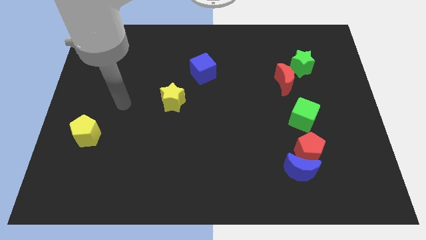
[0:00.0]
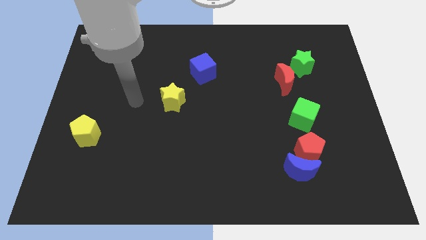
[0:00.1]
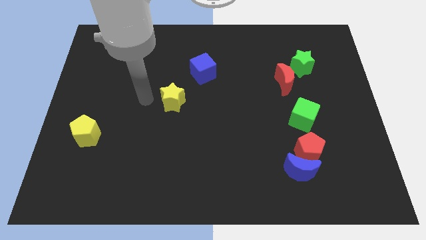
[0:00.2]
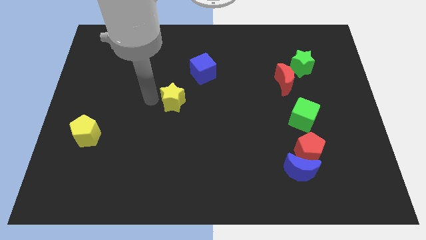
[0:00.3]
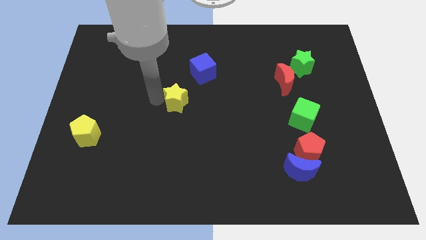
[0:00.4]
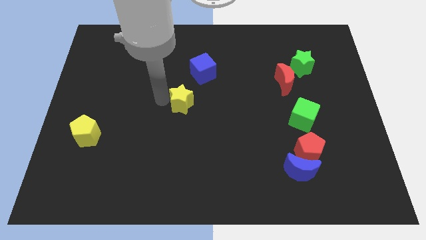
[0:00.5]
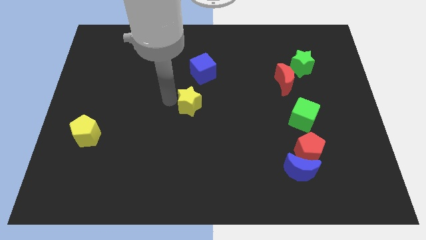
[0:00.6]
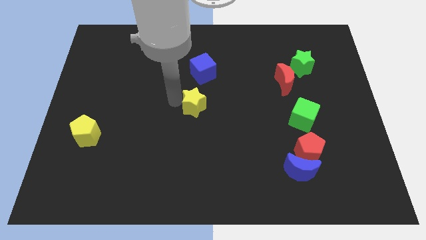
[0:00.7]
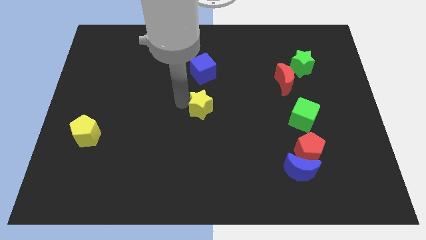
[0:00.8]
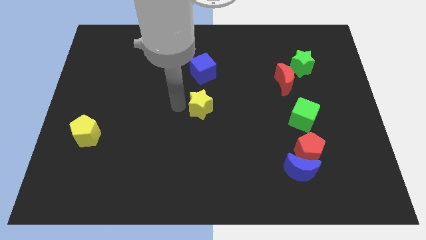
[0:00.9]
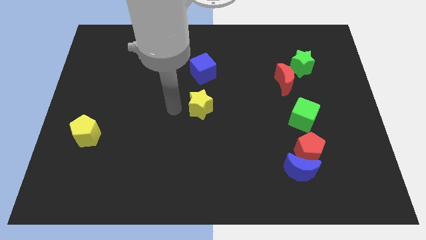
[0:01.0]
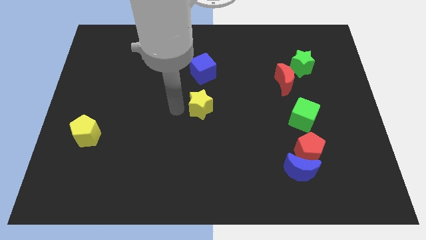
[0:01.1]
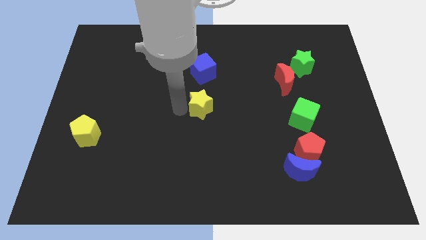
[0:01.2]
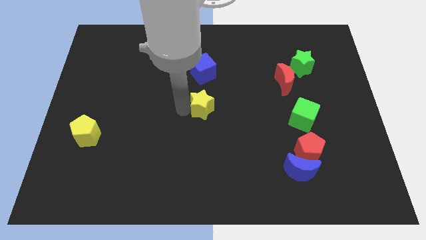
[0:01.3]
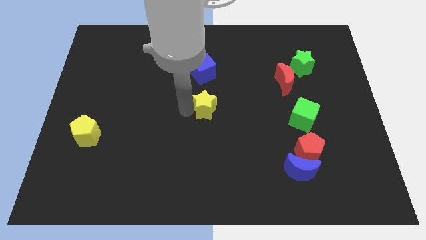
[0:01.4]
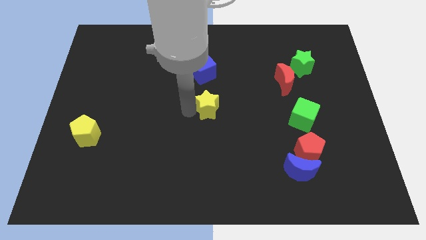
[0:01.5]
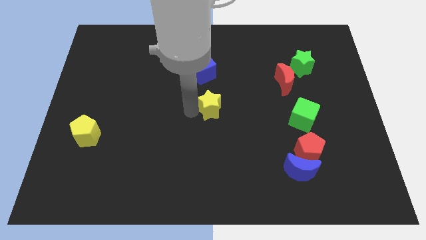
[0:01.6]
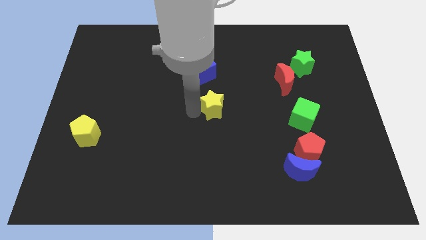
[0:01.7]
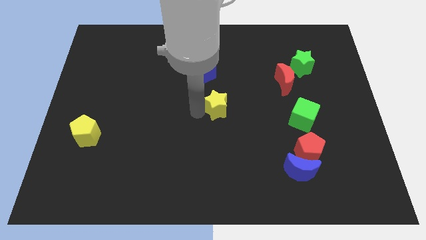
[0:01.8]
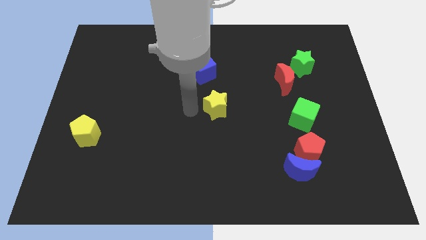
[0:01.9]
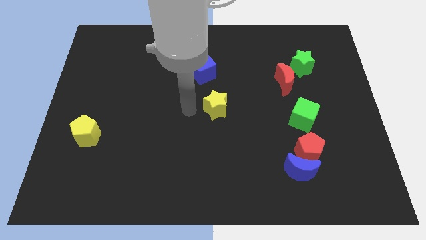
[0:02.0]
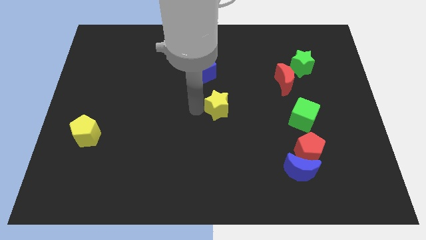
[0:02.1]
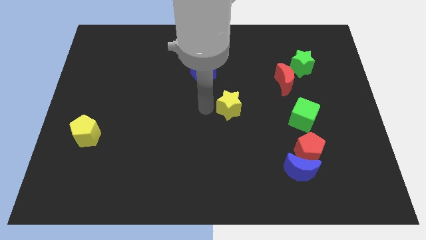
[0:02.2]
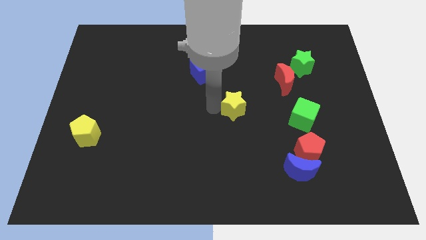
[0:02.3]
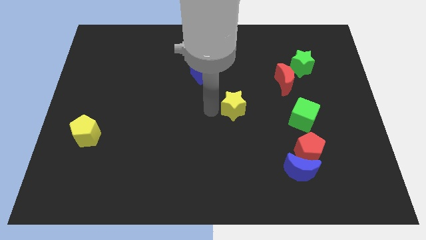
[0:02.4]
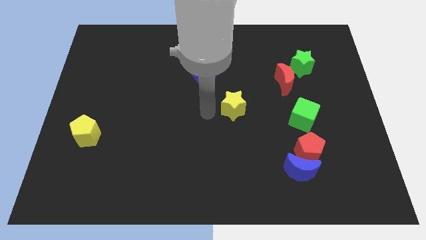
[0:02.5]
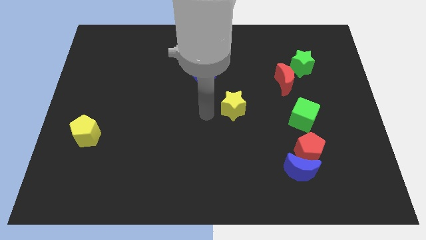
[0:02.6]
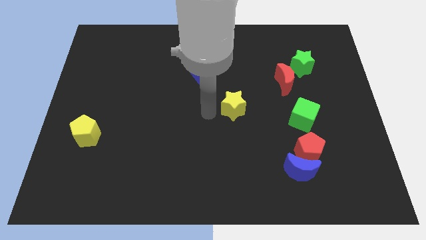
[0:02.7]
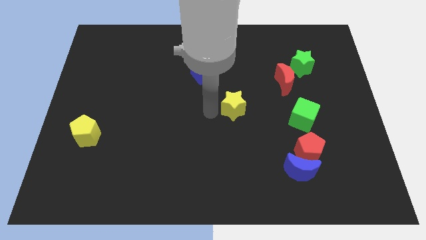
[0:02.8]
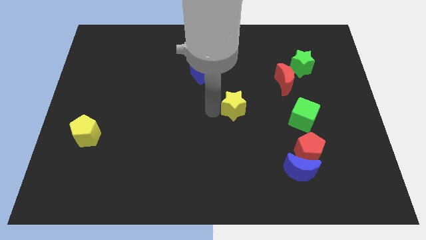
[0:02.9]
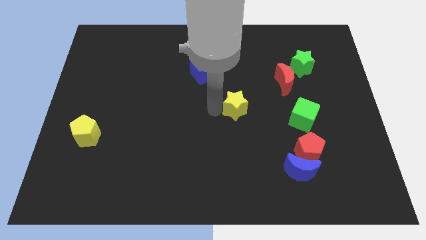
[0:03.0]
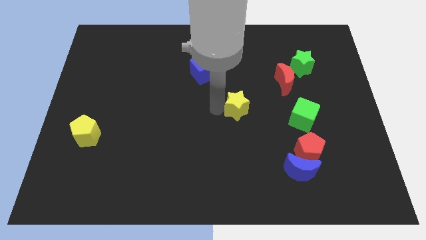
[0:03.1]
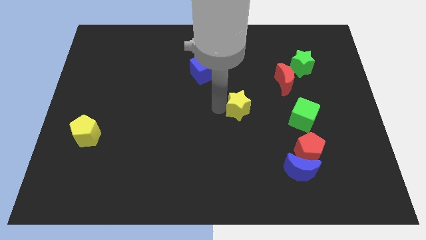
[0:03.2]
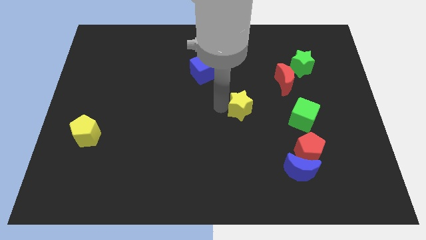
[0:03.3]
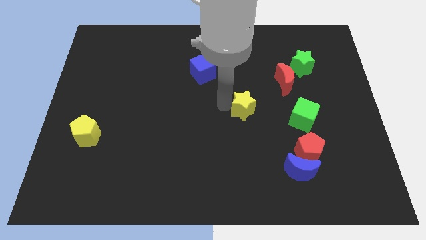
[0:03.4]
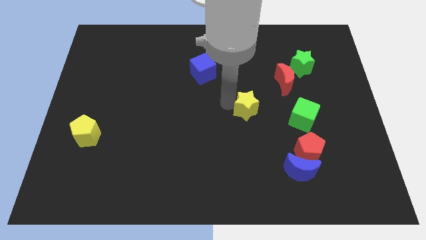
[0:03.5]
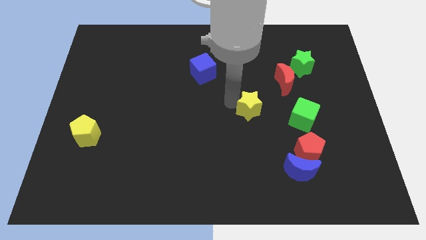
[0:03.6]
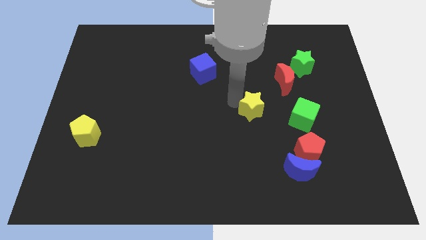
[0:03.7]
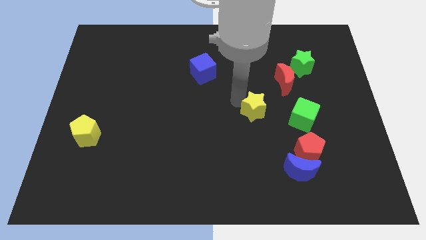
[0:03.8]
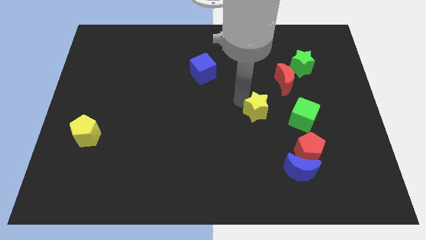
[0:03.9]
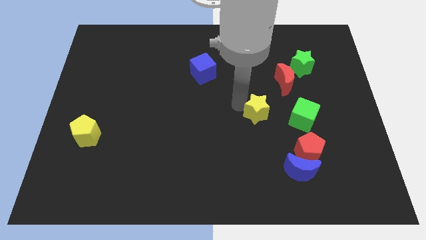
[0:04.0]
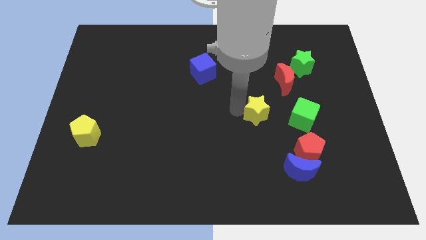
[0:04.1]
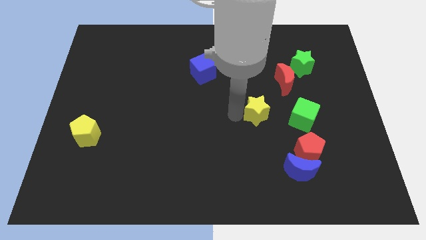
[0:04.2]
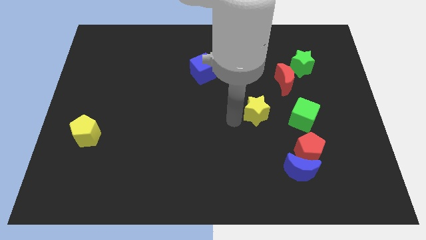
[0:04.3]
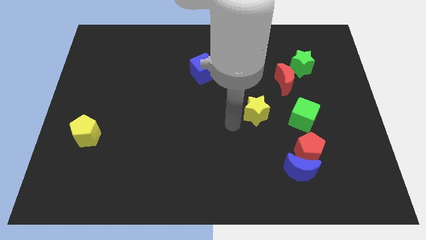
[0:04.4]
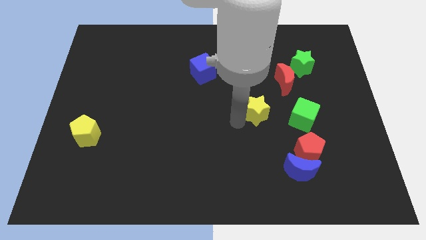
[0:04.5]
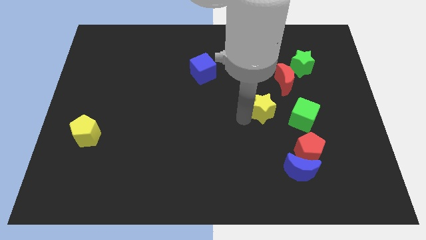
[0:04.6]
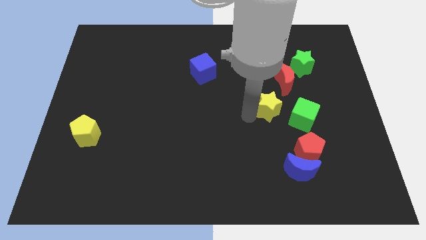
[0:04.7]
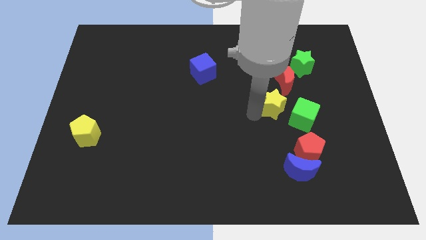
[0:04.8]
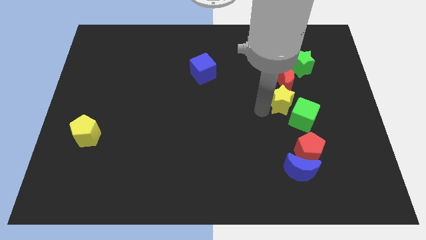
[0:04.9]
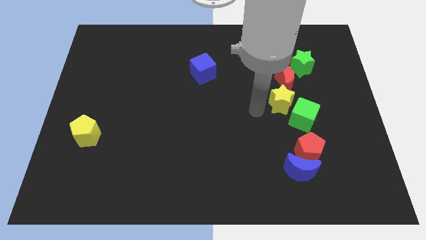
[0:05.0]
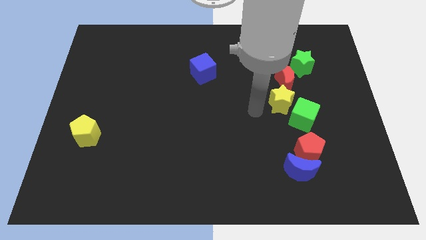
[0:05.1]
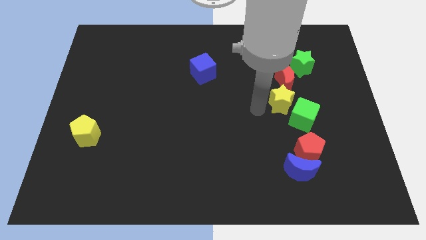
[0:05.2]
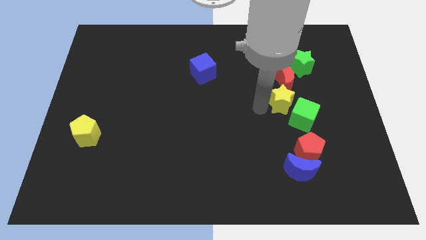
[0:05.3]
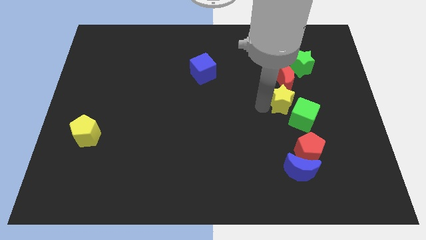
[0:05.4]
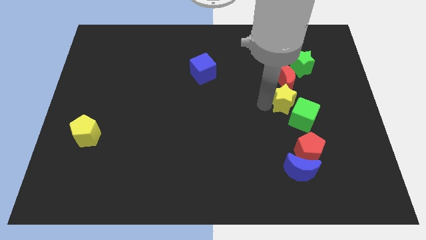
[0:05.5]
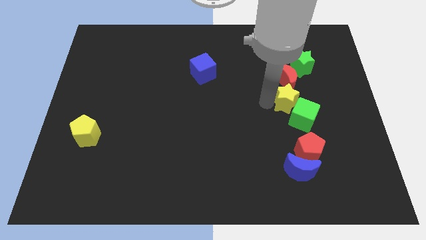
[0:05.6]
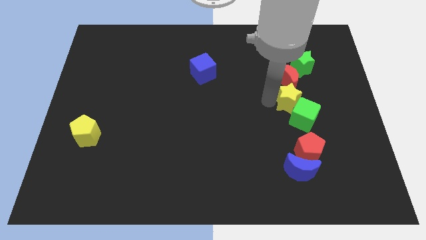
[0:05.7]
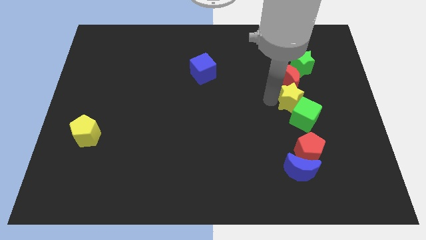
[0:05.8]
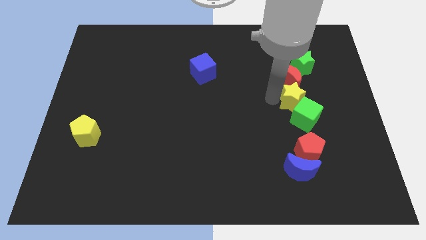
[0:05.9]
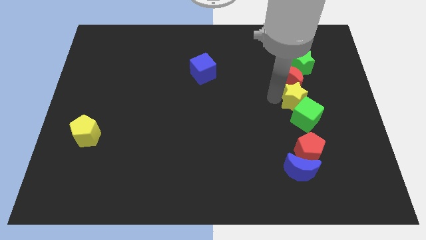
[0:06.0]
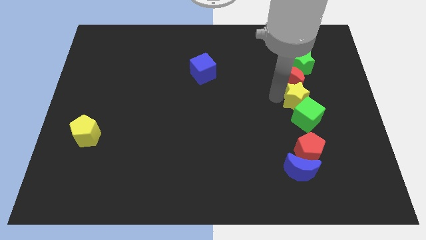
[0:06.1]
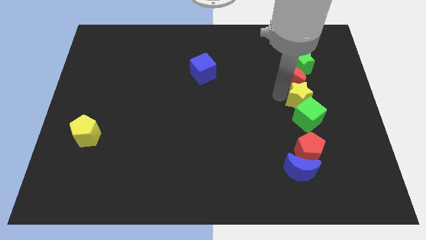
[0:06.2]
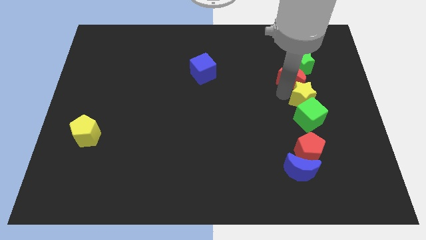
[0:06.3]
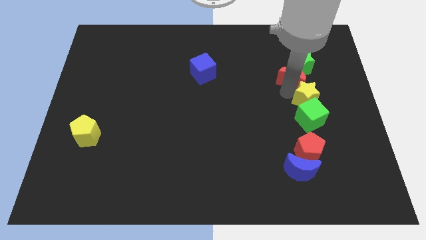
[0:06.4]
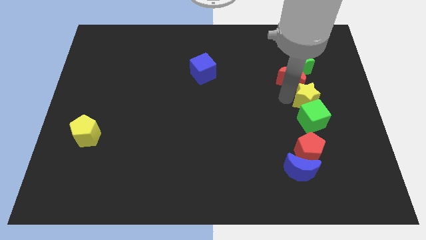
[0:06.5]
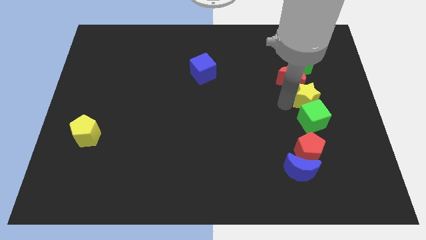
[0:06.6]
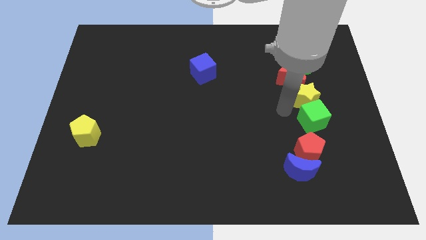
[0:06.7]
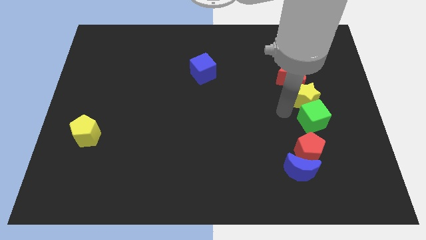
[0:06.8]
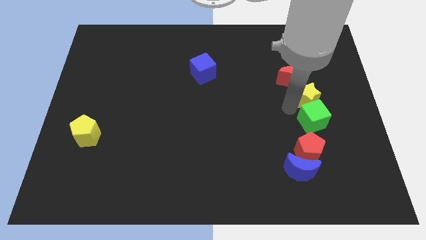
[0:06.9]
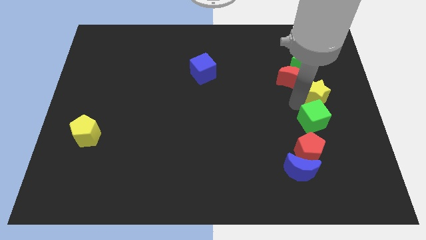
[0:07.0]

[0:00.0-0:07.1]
put the yellow star just right of the red moon
